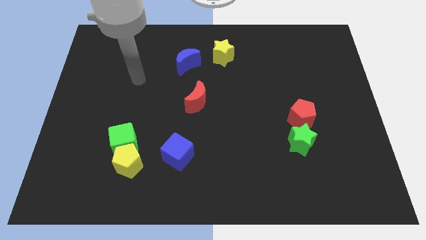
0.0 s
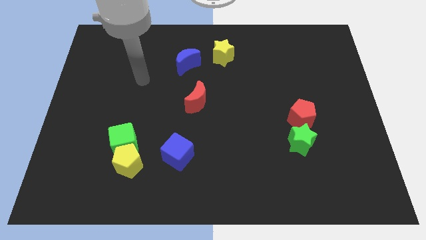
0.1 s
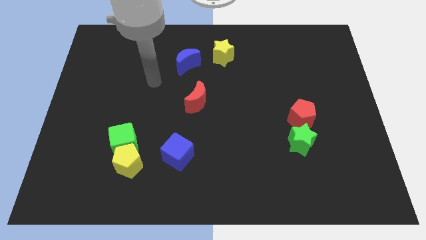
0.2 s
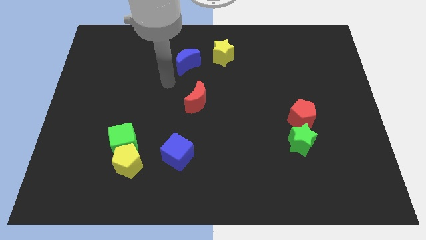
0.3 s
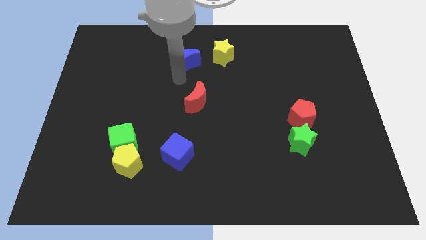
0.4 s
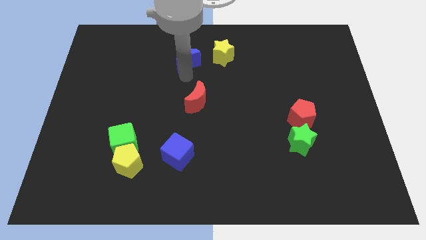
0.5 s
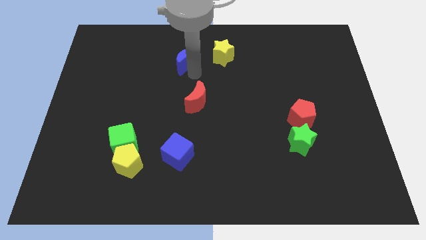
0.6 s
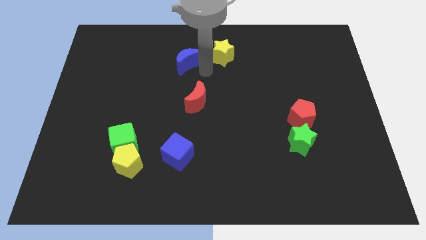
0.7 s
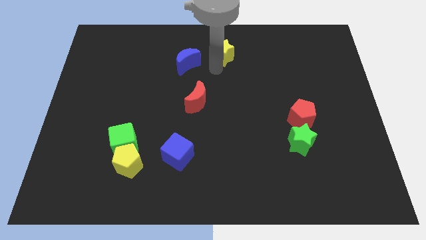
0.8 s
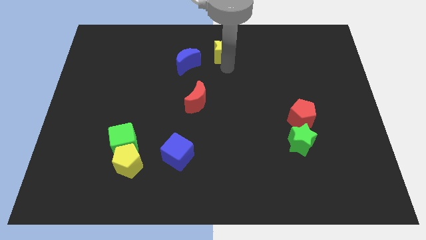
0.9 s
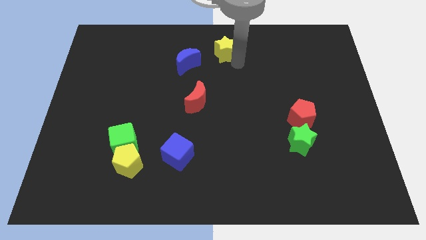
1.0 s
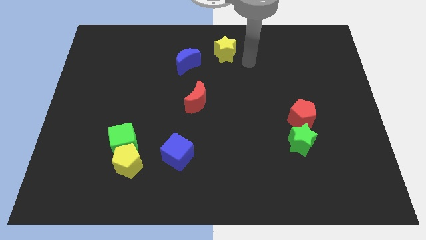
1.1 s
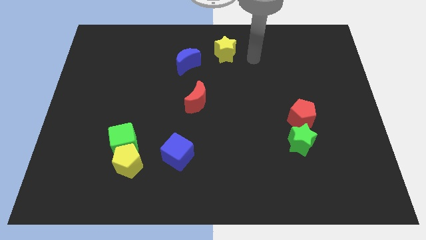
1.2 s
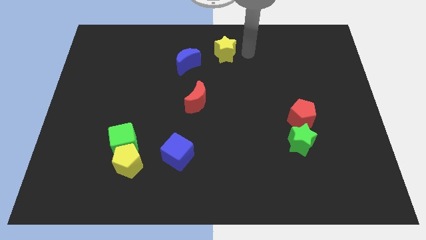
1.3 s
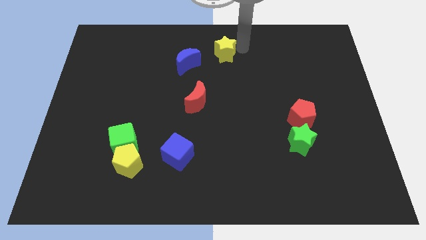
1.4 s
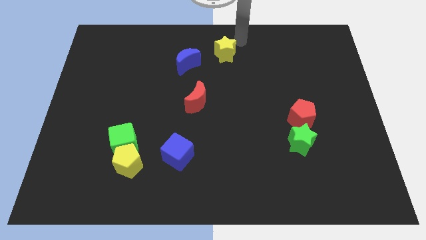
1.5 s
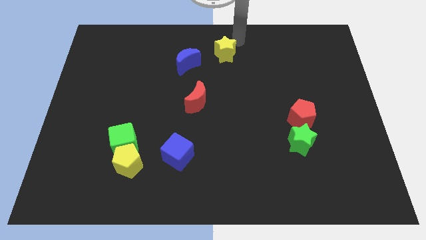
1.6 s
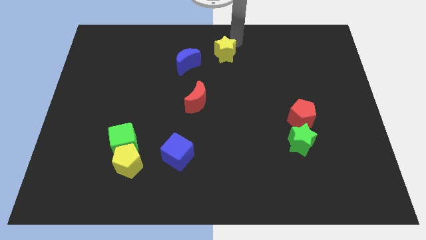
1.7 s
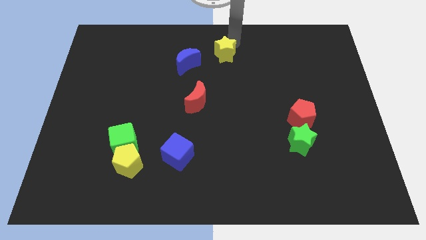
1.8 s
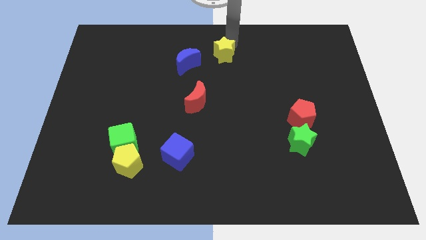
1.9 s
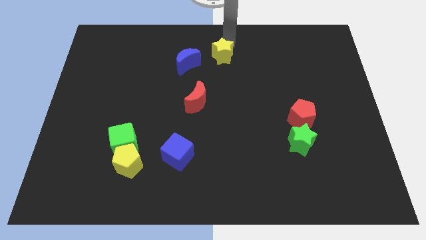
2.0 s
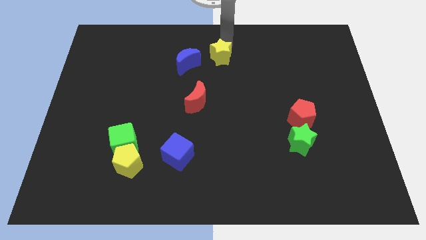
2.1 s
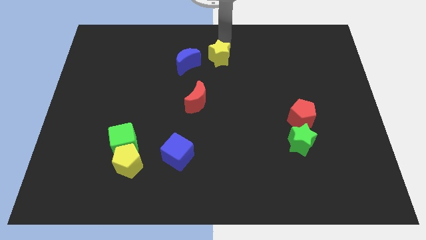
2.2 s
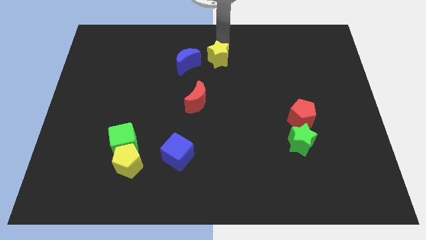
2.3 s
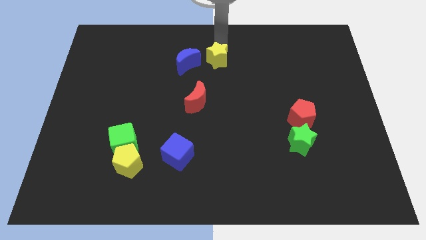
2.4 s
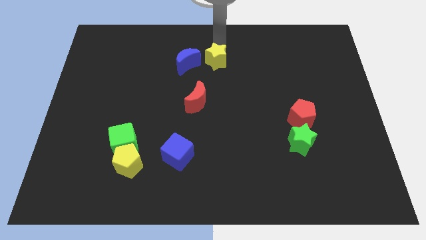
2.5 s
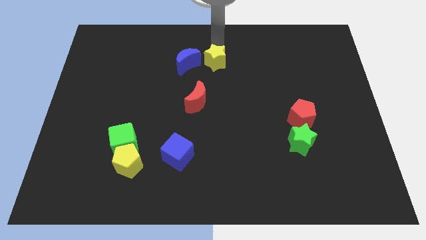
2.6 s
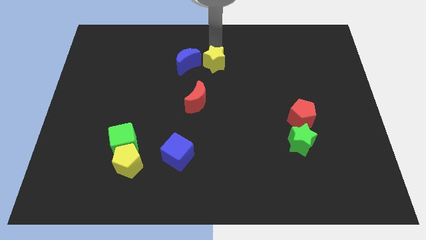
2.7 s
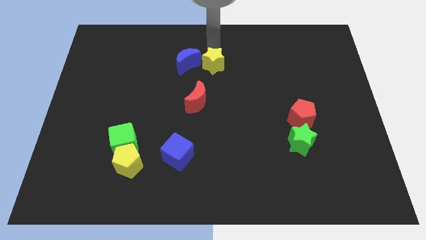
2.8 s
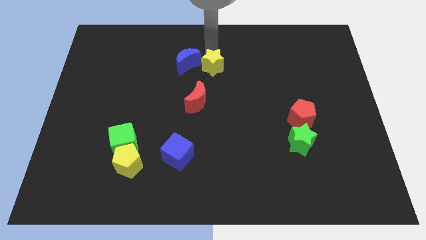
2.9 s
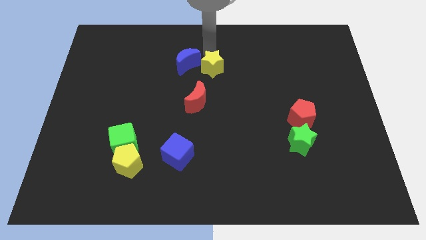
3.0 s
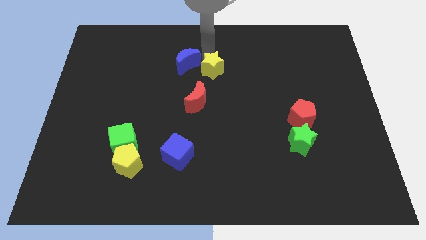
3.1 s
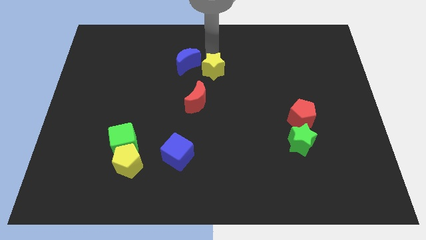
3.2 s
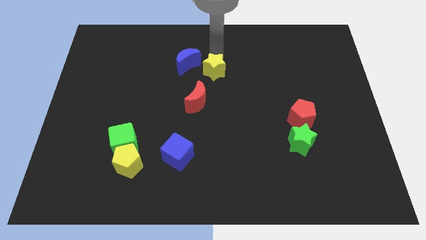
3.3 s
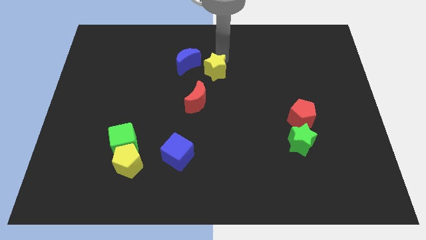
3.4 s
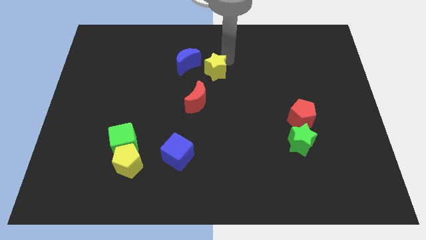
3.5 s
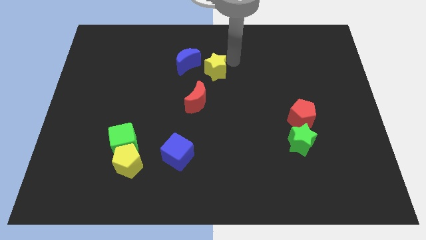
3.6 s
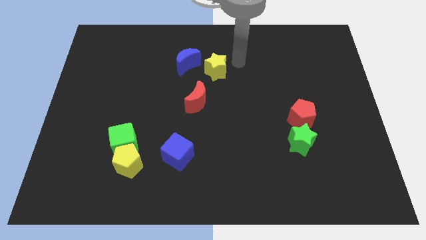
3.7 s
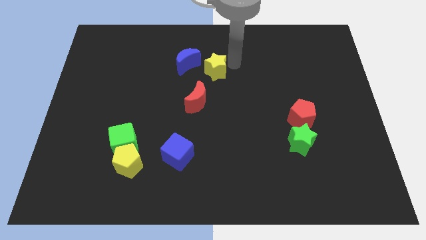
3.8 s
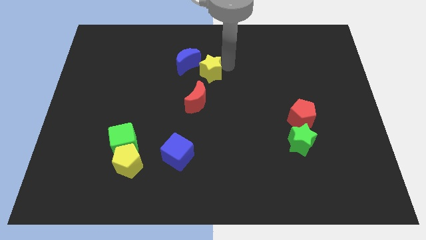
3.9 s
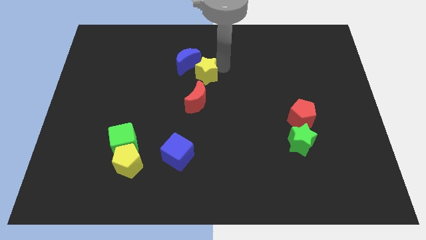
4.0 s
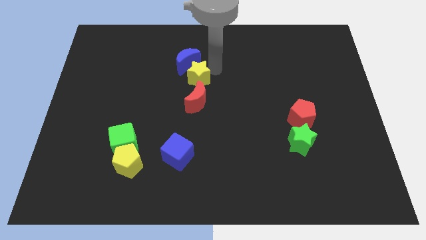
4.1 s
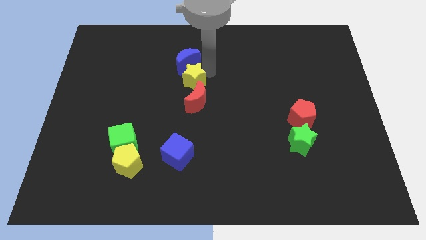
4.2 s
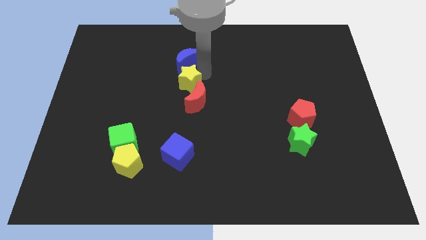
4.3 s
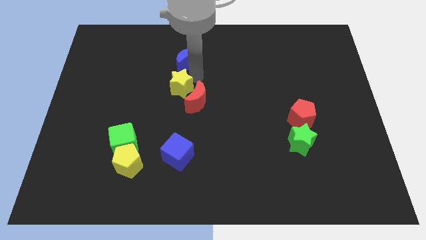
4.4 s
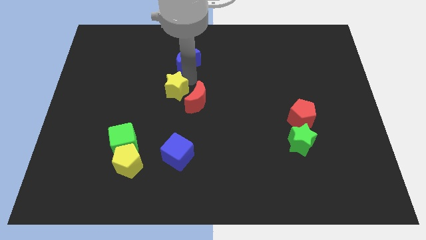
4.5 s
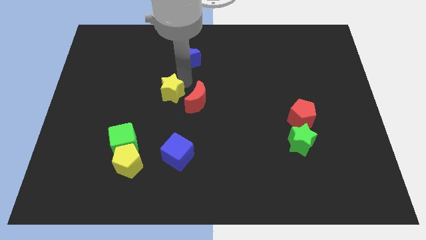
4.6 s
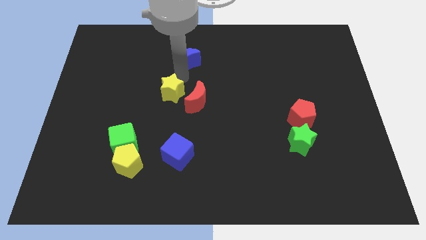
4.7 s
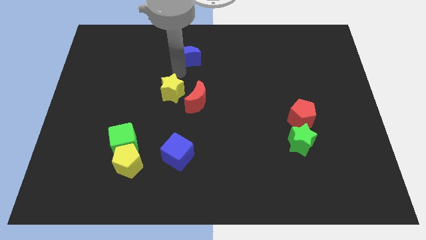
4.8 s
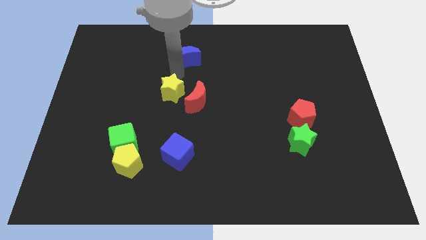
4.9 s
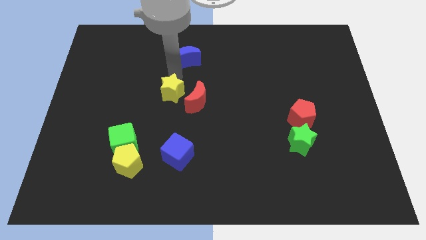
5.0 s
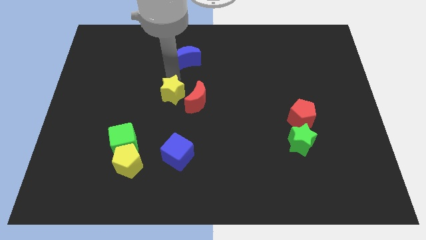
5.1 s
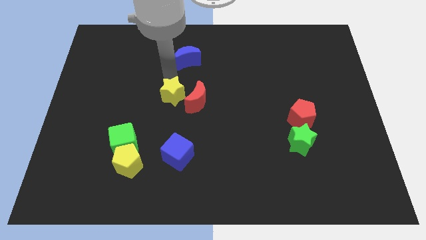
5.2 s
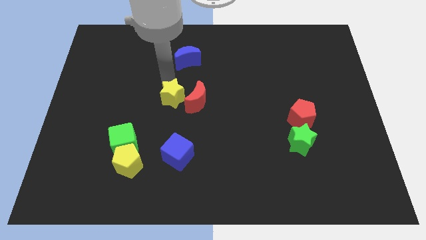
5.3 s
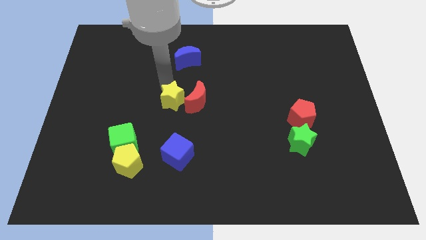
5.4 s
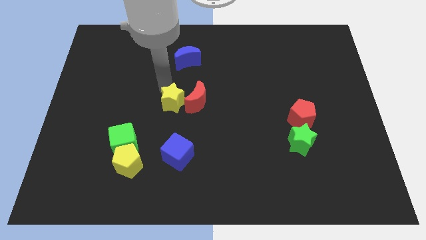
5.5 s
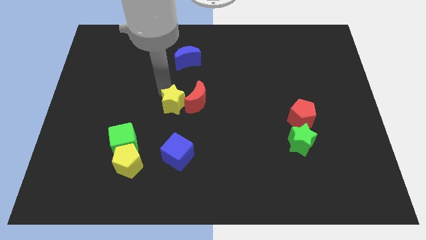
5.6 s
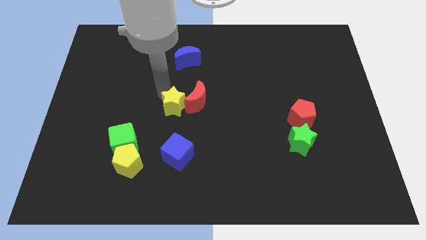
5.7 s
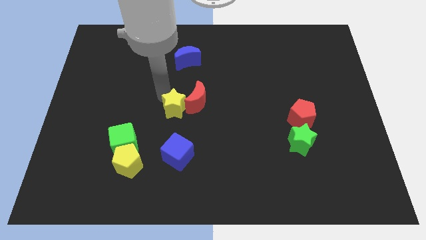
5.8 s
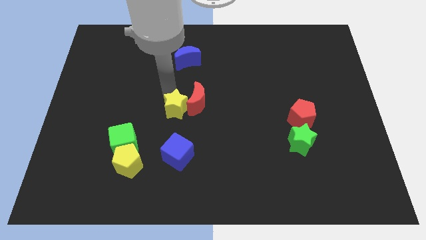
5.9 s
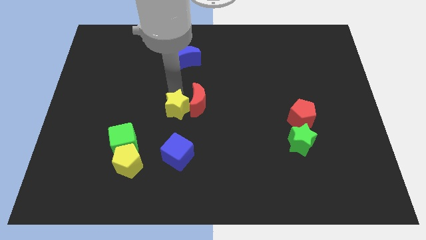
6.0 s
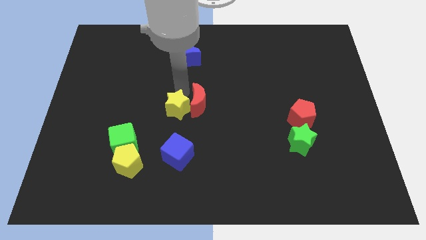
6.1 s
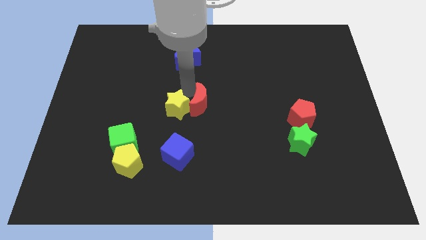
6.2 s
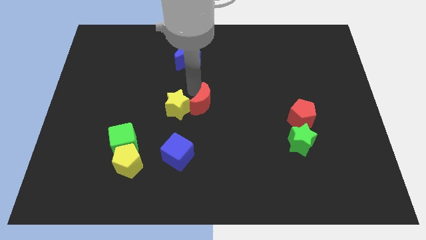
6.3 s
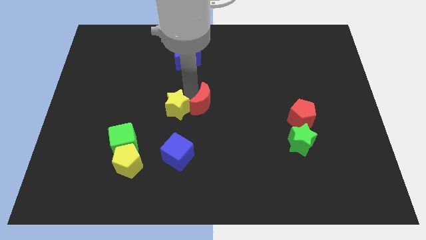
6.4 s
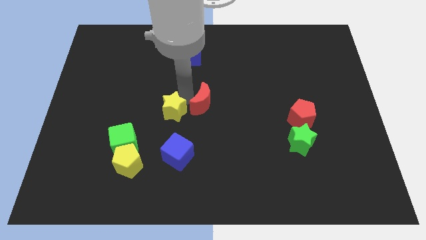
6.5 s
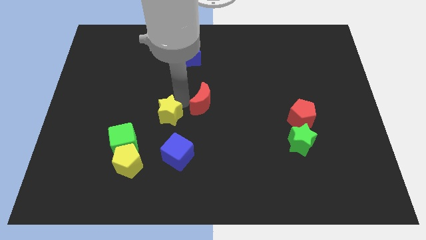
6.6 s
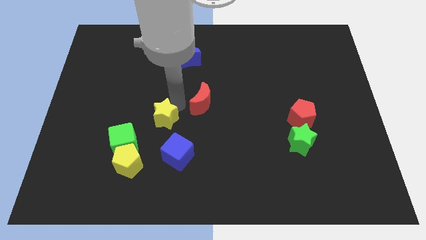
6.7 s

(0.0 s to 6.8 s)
push the yellow star to the top left side of the blue cube

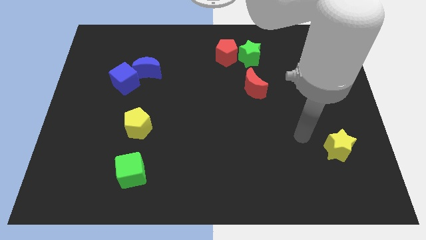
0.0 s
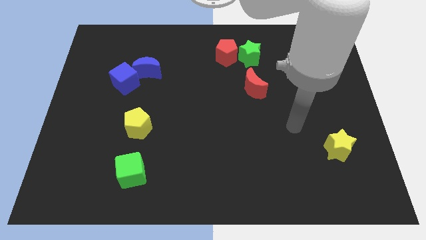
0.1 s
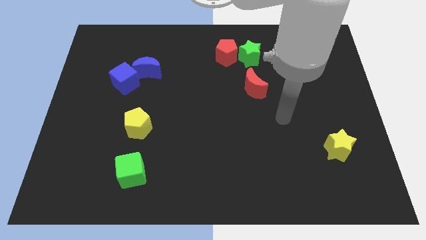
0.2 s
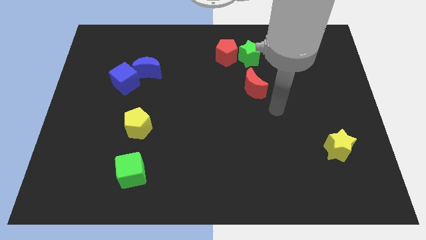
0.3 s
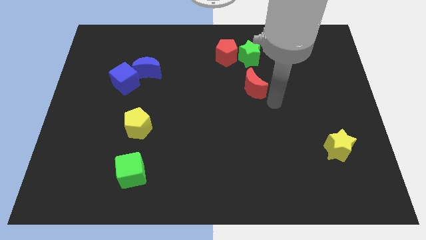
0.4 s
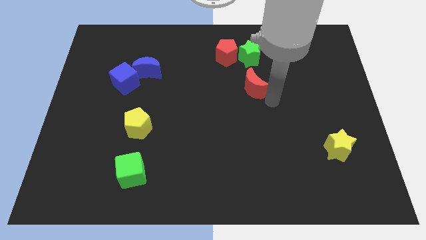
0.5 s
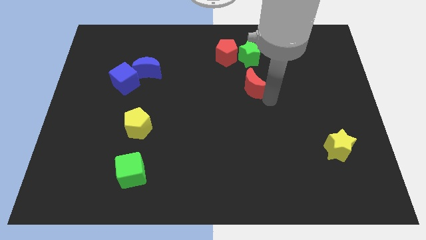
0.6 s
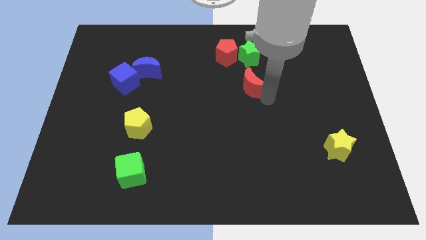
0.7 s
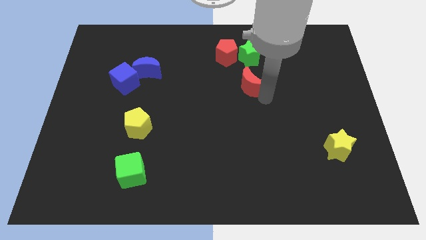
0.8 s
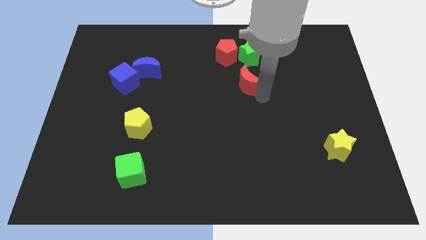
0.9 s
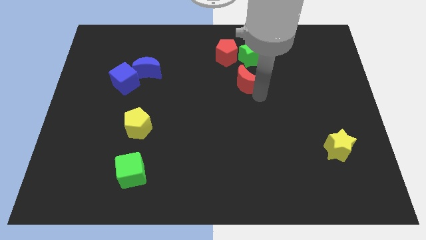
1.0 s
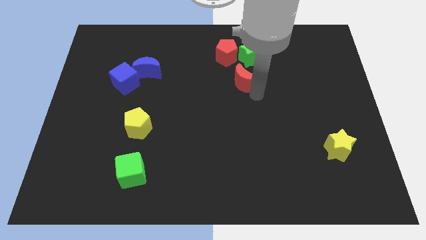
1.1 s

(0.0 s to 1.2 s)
put the red moon to the bottom left side of the green star
